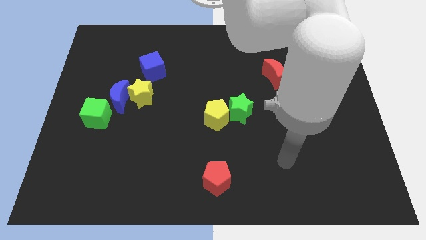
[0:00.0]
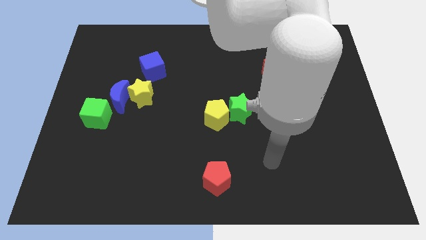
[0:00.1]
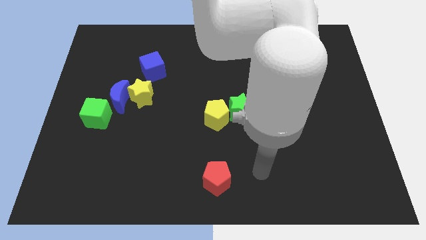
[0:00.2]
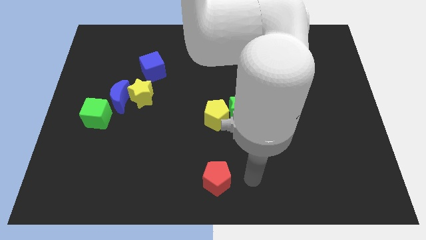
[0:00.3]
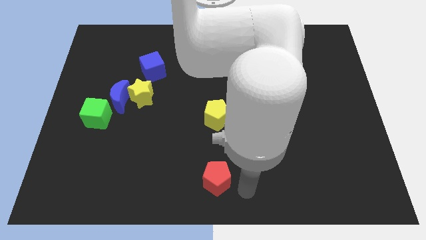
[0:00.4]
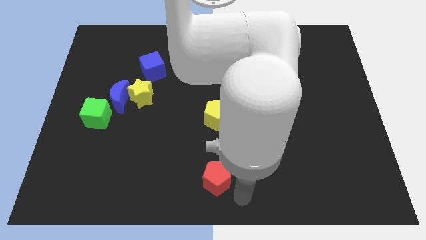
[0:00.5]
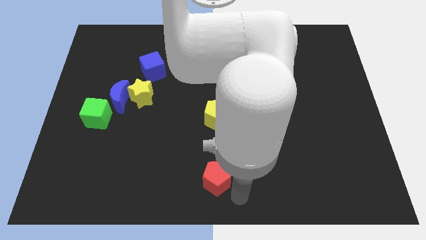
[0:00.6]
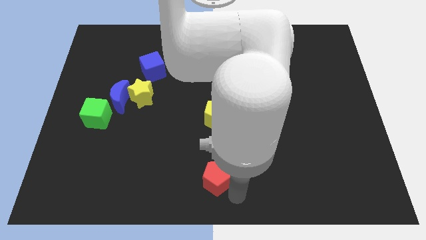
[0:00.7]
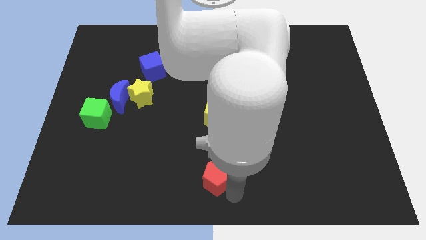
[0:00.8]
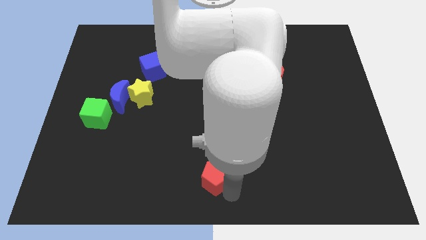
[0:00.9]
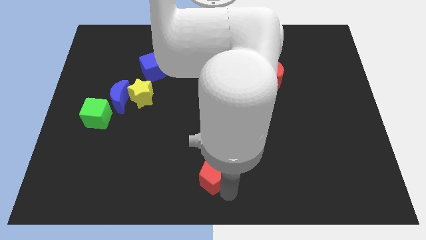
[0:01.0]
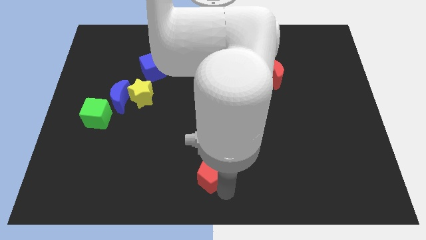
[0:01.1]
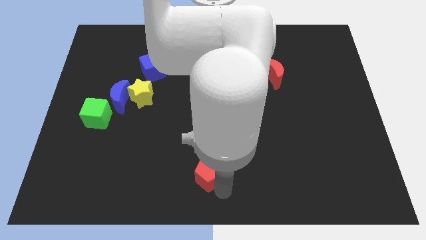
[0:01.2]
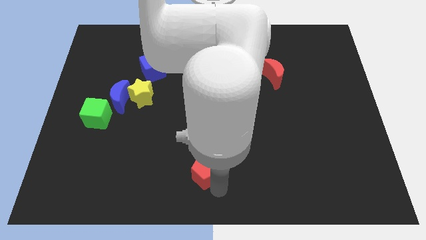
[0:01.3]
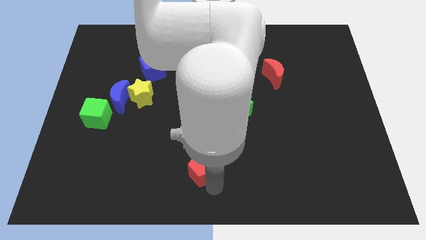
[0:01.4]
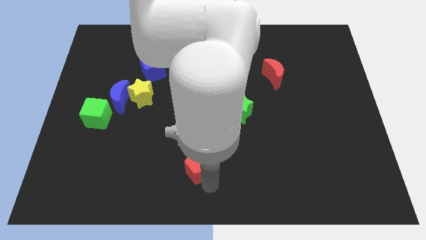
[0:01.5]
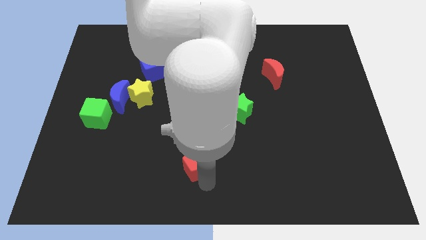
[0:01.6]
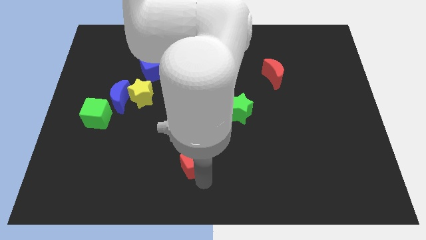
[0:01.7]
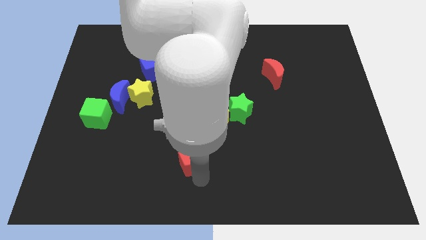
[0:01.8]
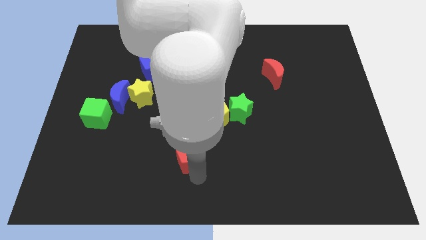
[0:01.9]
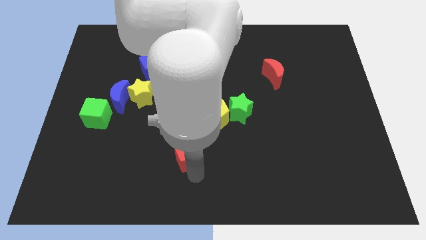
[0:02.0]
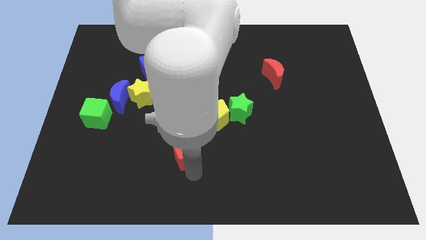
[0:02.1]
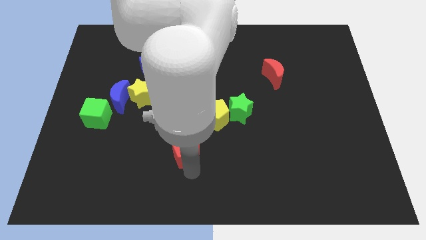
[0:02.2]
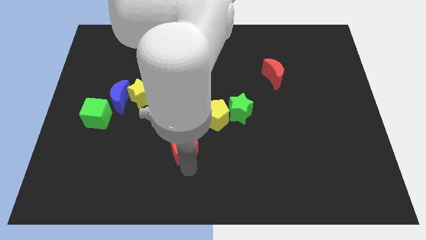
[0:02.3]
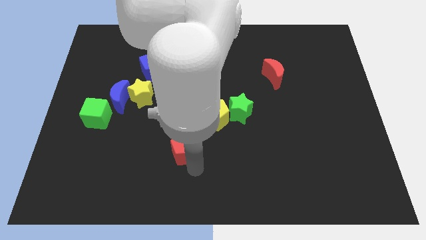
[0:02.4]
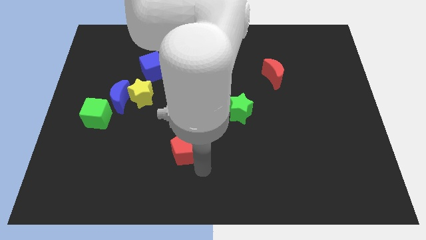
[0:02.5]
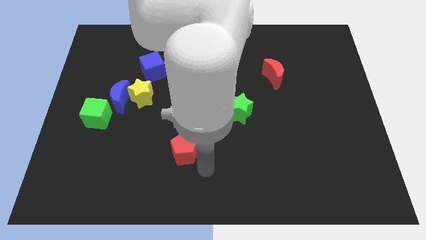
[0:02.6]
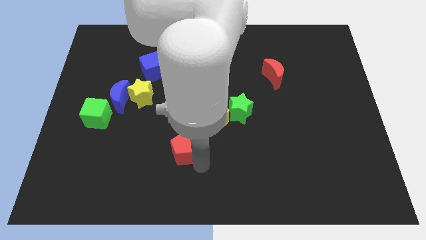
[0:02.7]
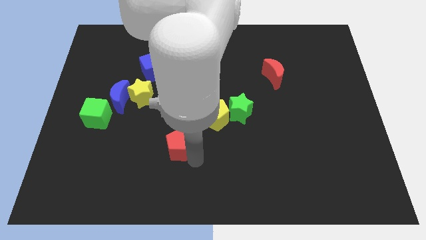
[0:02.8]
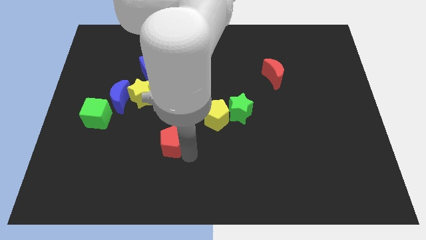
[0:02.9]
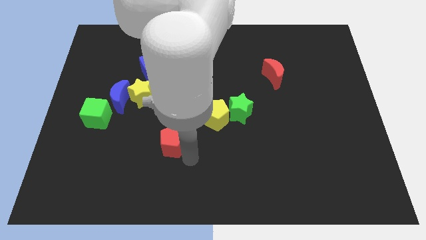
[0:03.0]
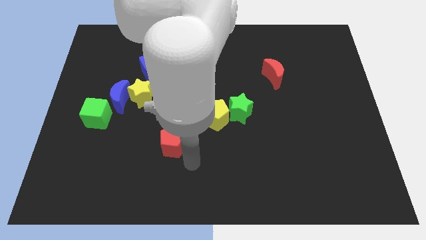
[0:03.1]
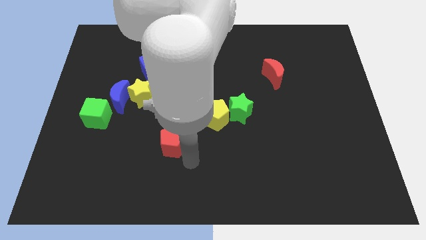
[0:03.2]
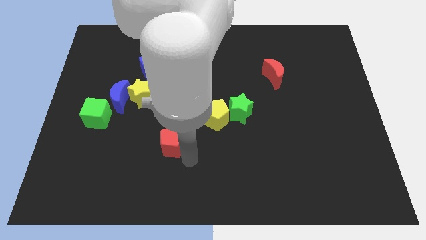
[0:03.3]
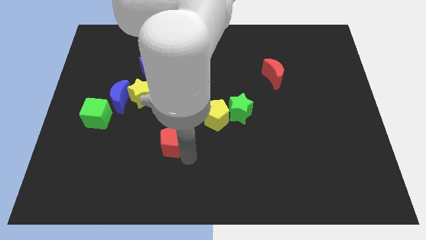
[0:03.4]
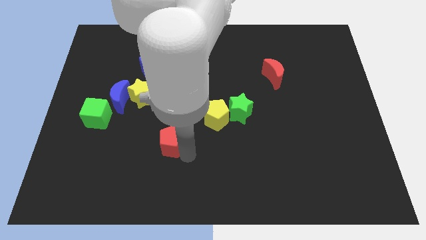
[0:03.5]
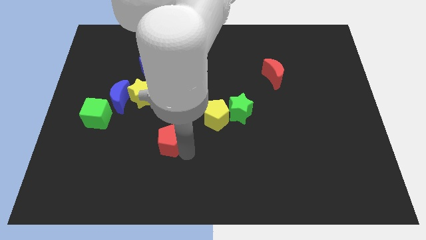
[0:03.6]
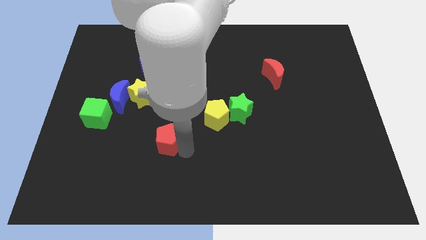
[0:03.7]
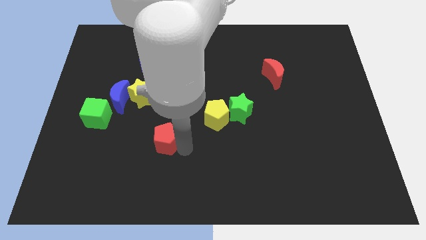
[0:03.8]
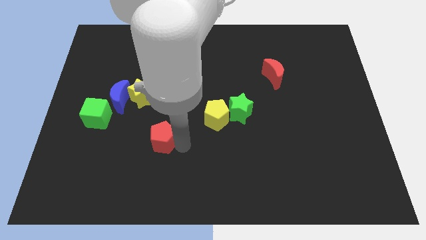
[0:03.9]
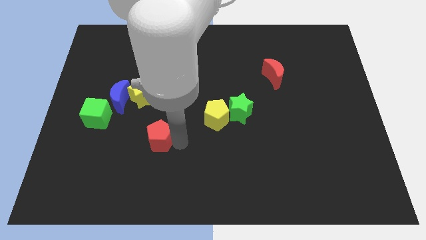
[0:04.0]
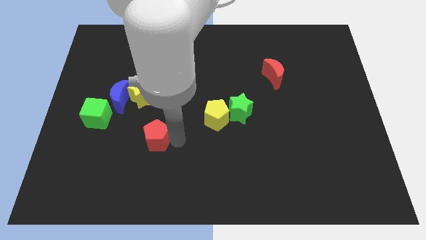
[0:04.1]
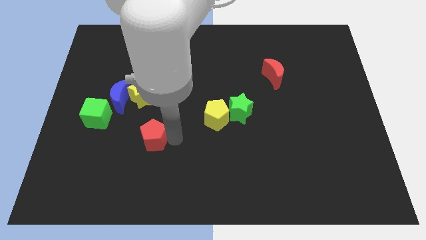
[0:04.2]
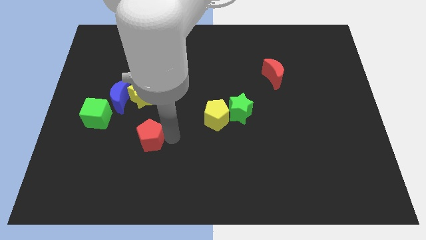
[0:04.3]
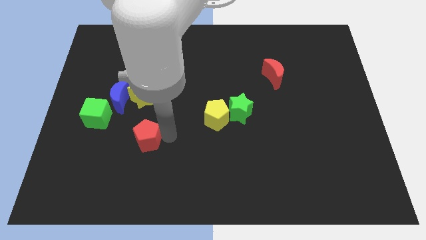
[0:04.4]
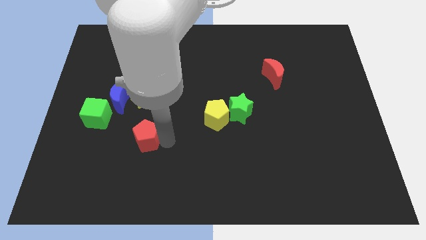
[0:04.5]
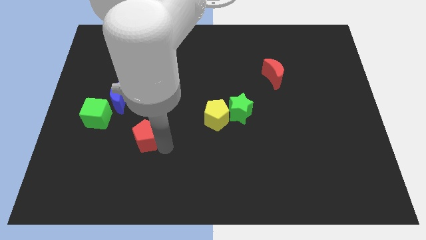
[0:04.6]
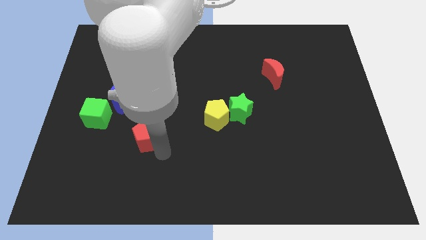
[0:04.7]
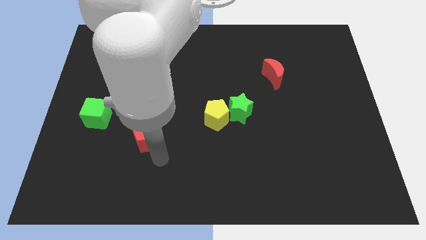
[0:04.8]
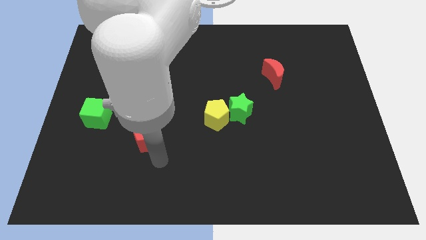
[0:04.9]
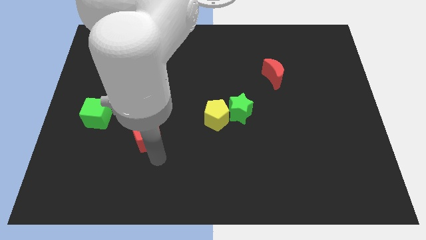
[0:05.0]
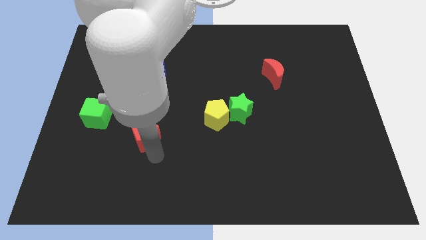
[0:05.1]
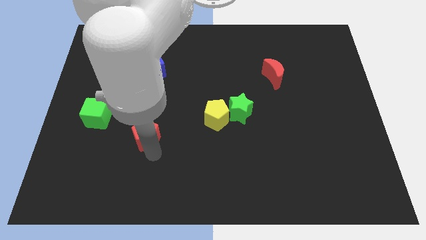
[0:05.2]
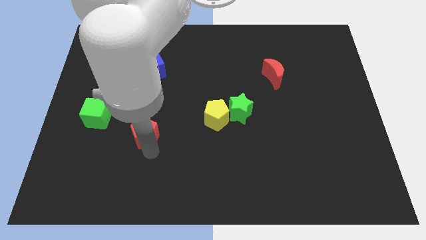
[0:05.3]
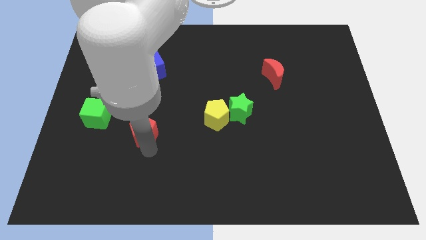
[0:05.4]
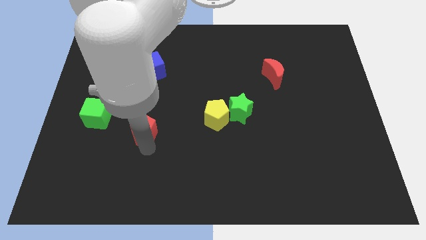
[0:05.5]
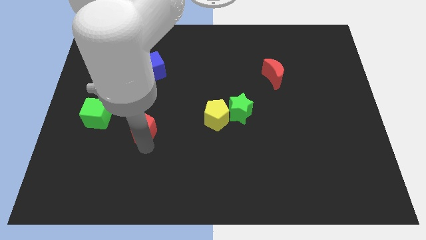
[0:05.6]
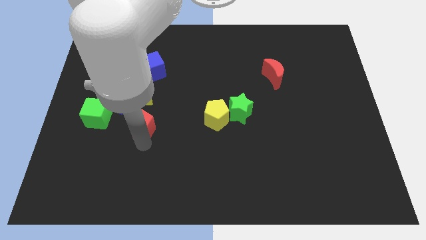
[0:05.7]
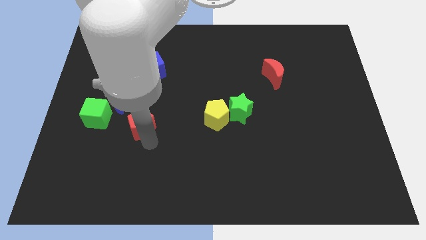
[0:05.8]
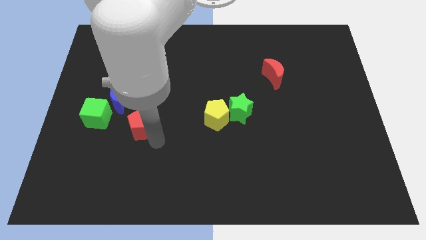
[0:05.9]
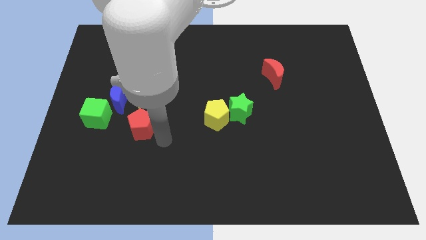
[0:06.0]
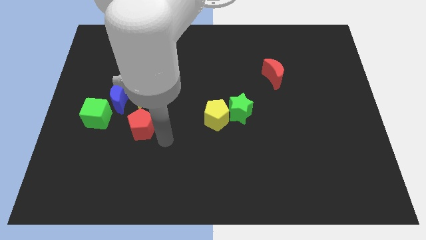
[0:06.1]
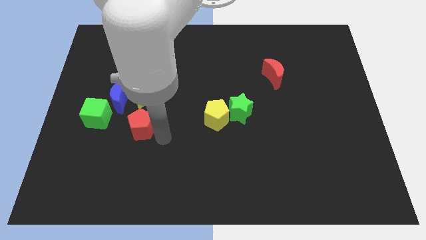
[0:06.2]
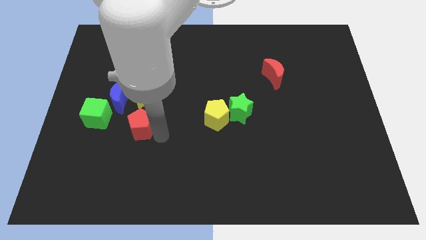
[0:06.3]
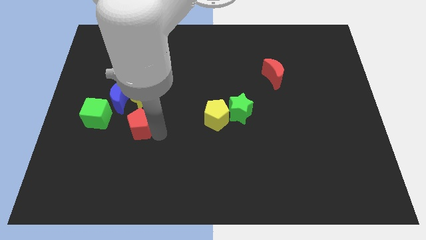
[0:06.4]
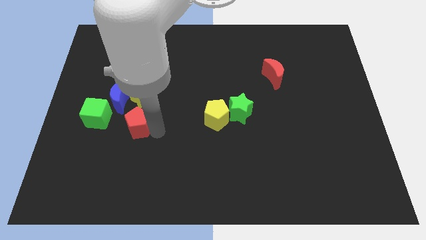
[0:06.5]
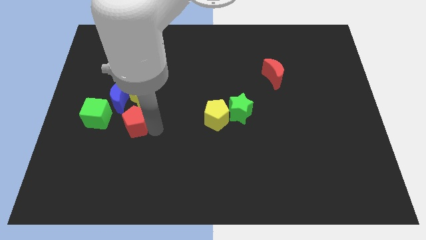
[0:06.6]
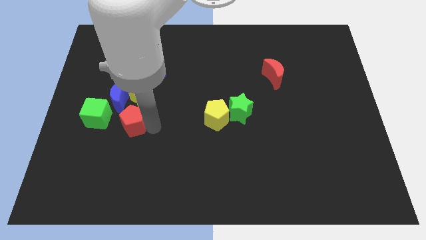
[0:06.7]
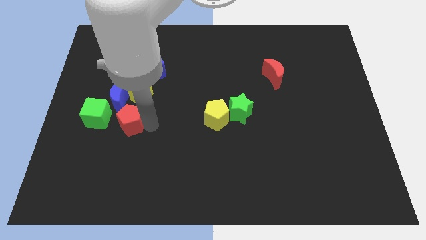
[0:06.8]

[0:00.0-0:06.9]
push the red pentagon to the bottom left of the yellow star
